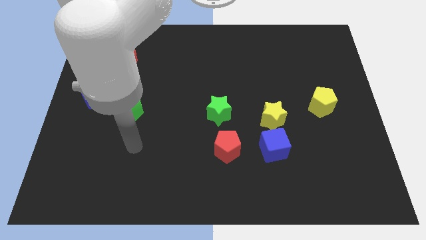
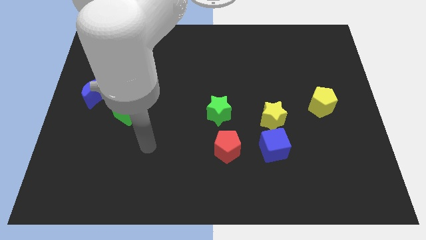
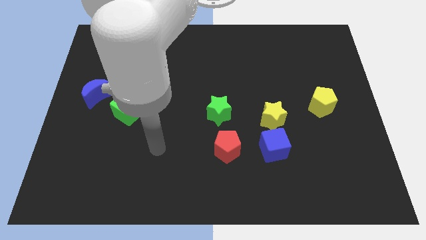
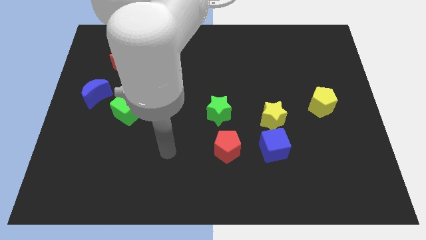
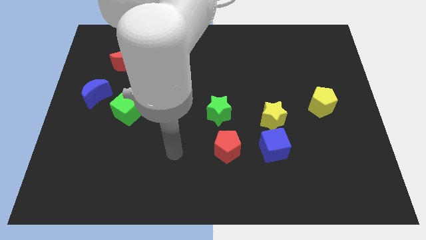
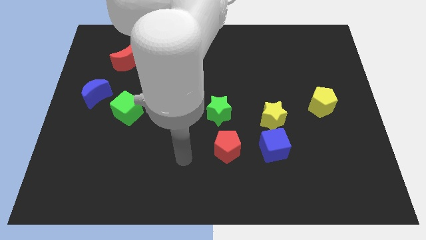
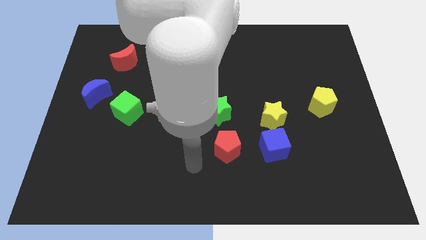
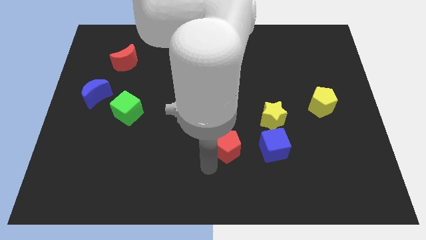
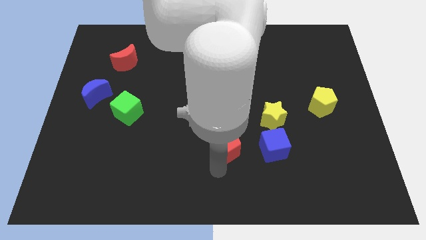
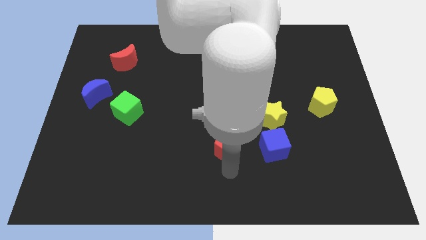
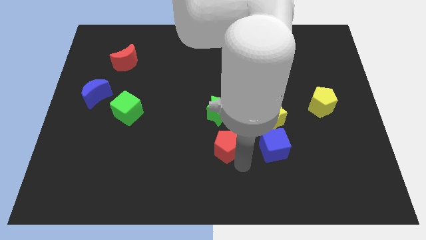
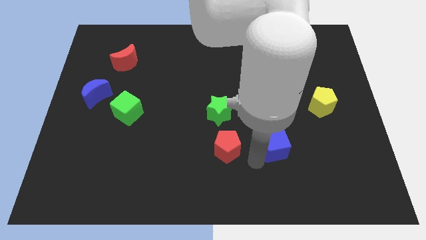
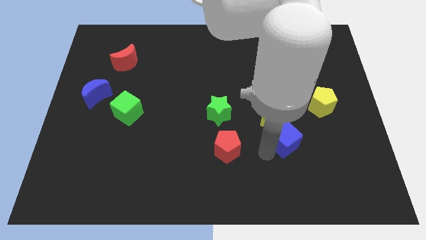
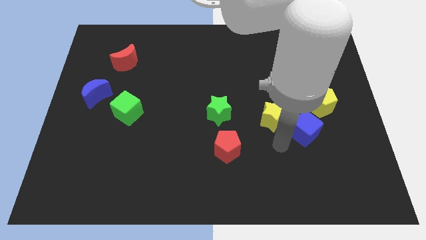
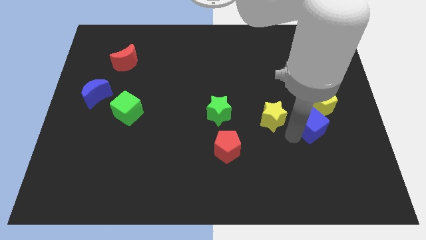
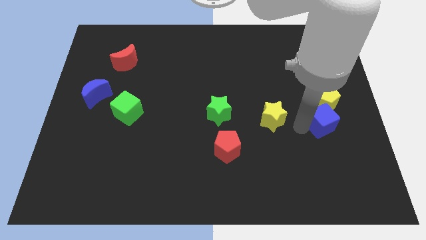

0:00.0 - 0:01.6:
move the yellow star away from the blue cube

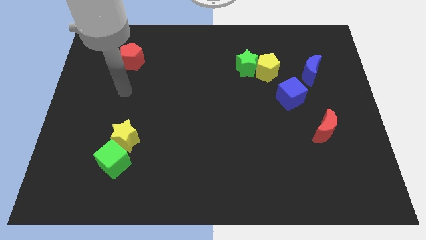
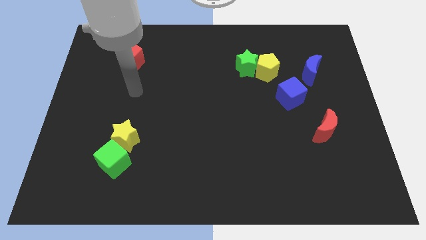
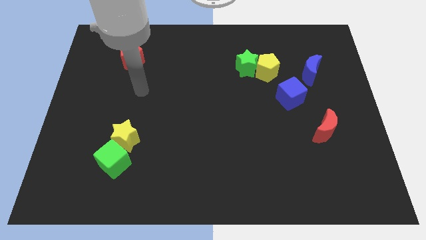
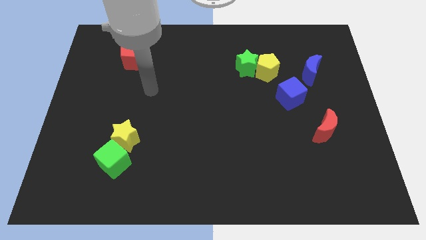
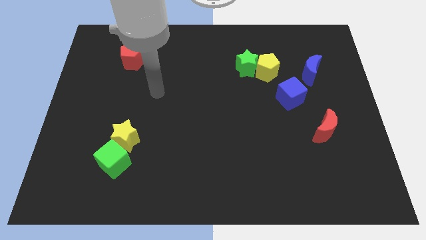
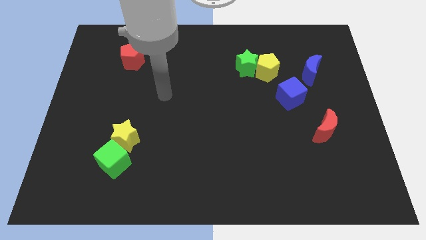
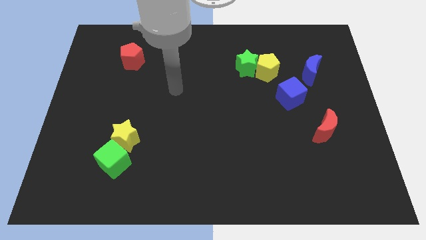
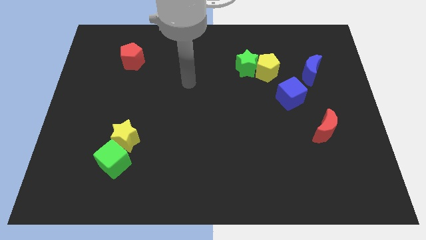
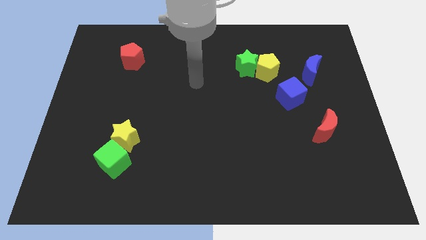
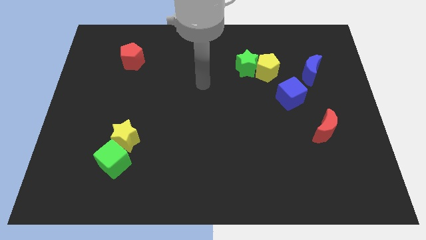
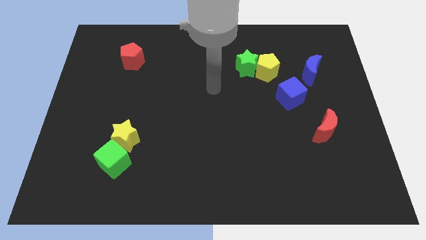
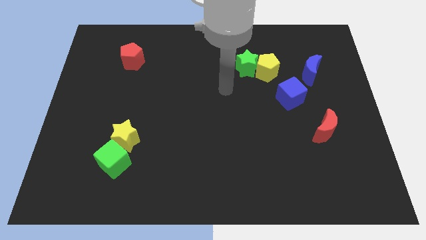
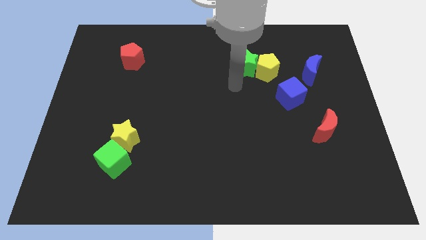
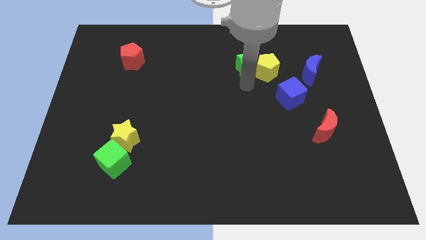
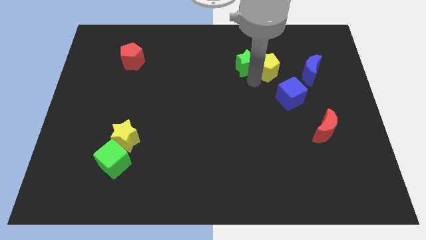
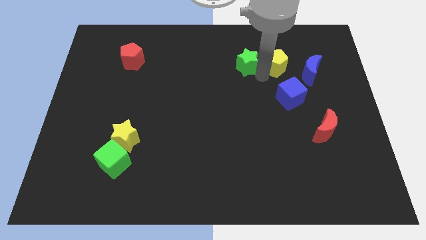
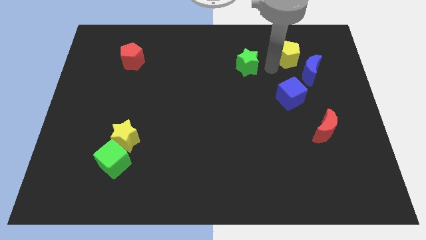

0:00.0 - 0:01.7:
pull the green star apart from the yellow pentagon

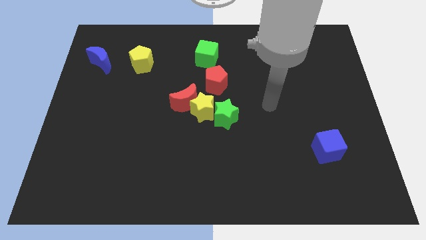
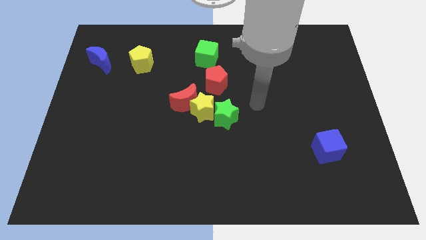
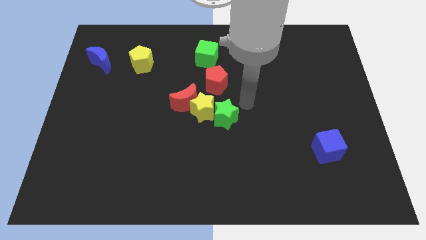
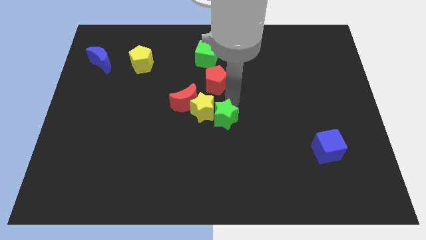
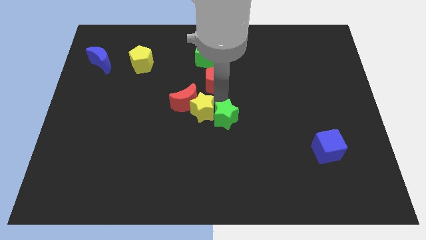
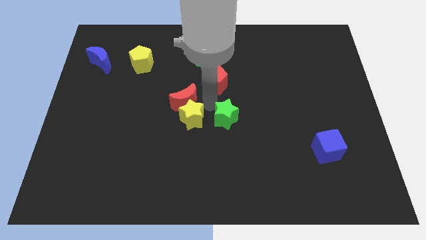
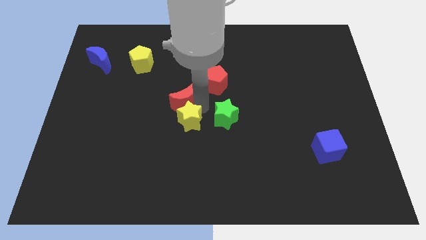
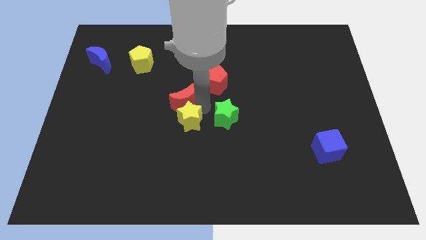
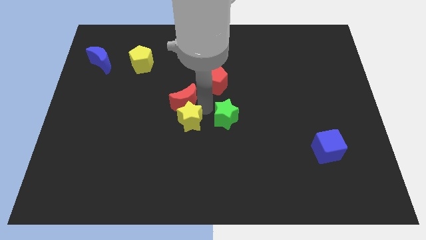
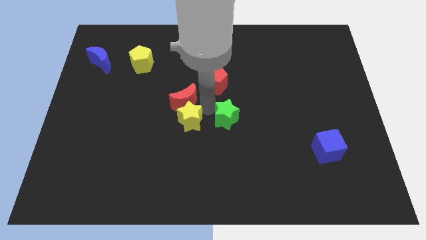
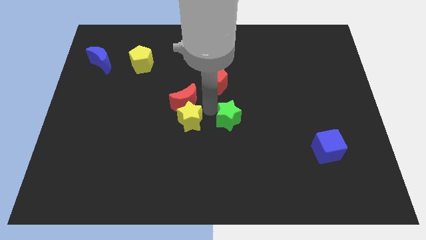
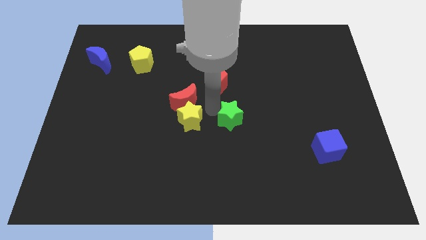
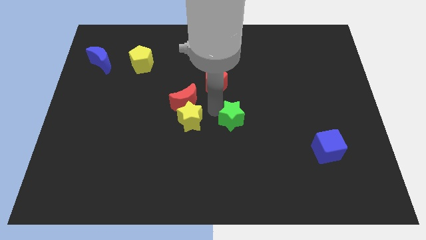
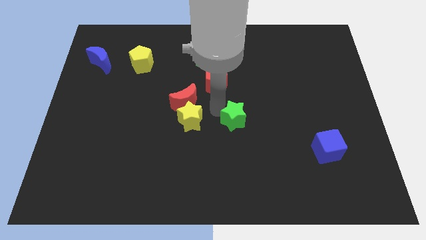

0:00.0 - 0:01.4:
separate the green star from the yellow star

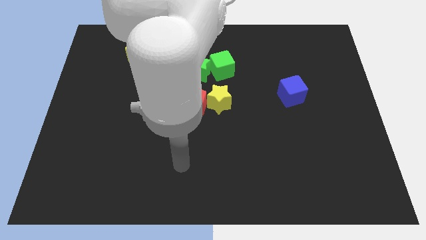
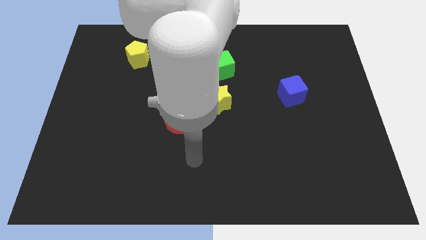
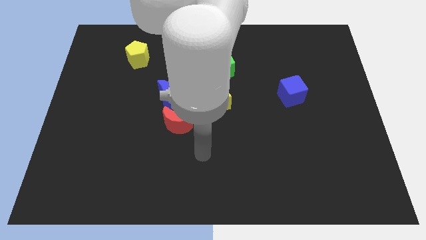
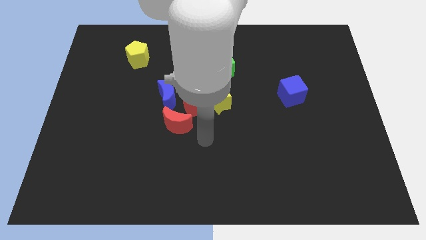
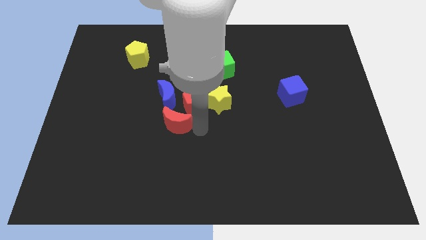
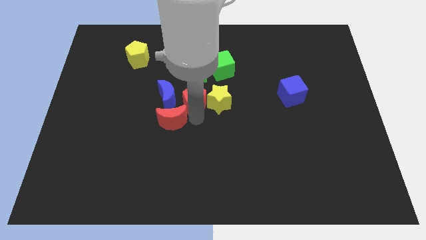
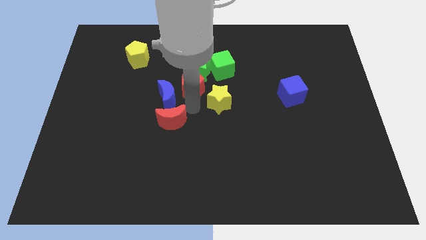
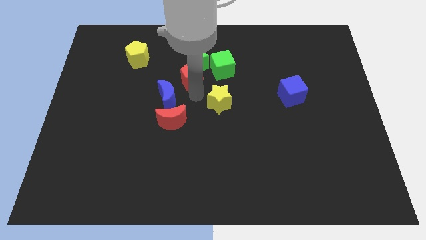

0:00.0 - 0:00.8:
separate the yellow star from the red pentagon

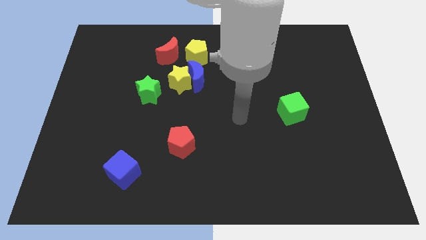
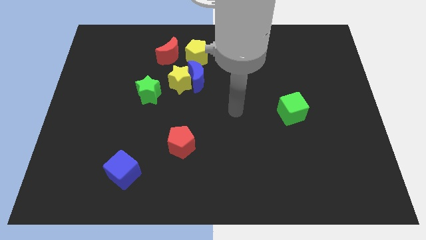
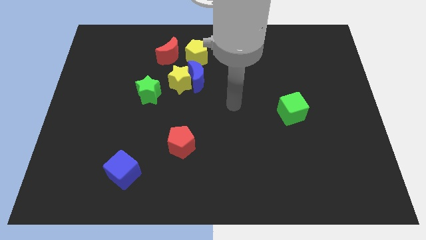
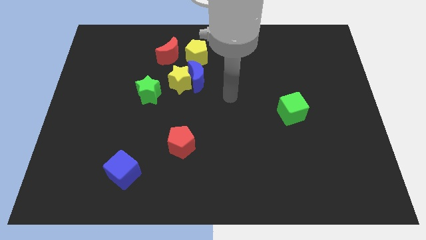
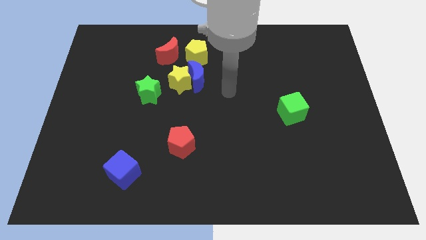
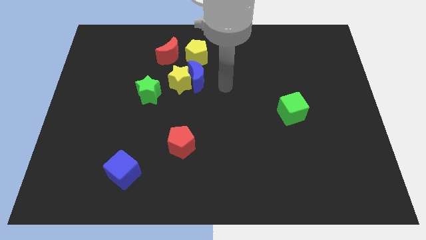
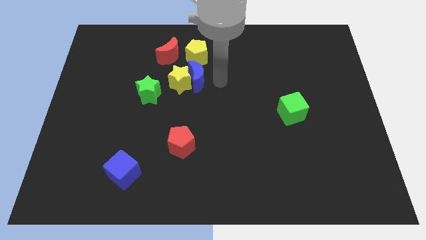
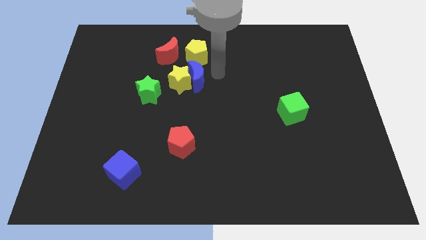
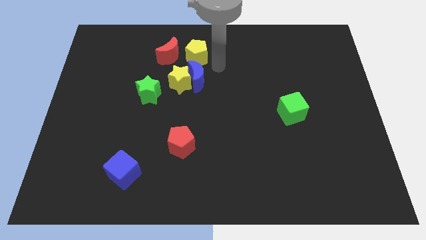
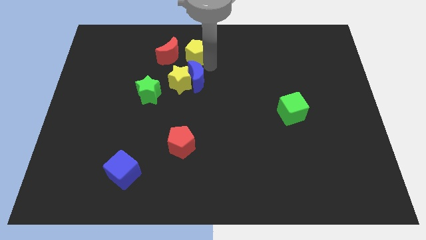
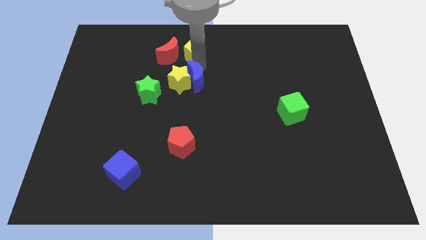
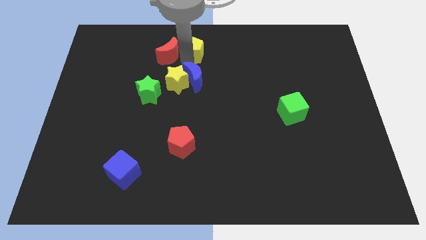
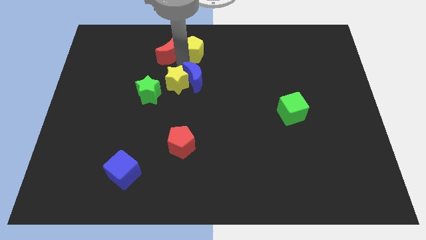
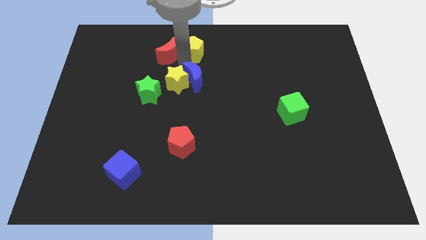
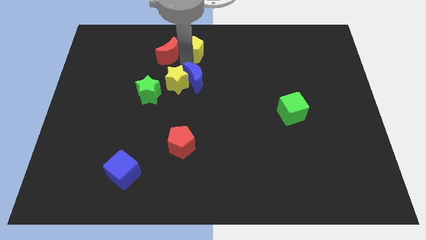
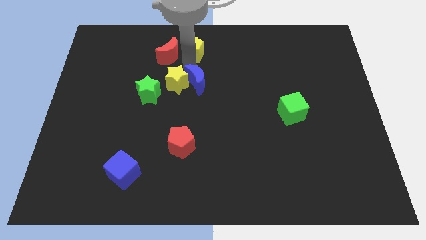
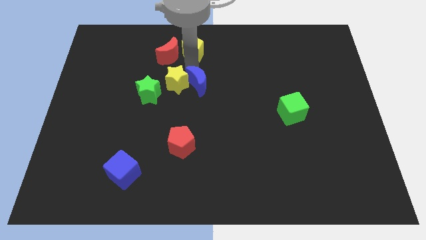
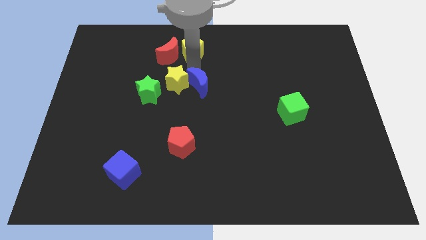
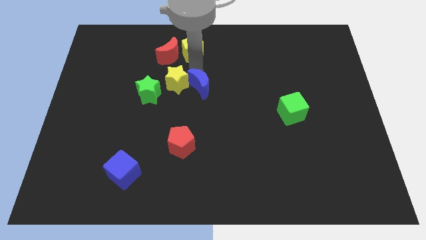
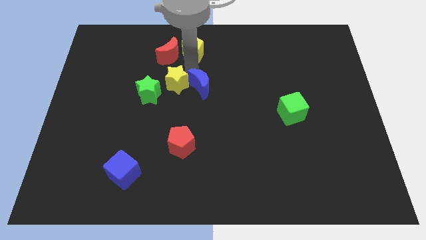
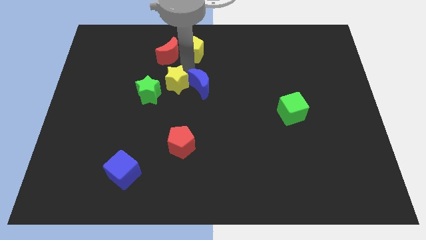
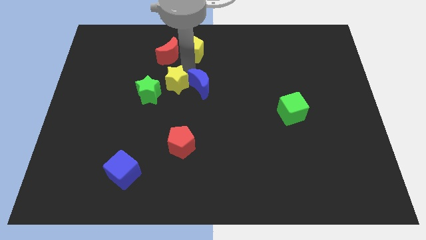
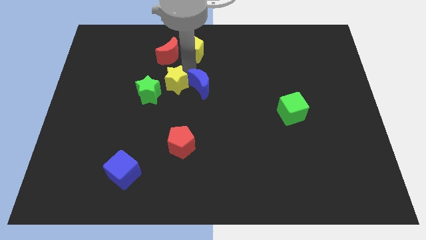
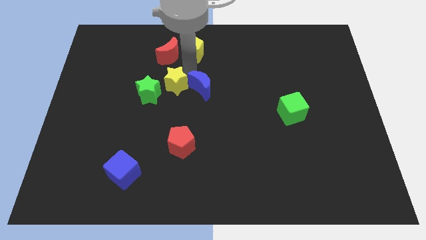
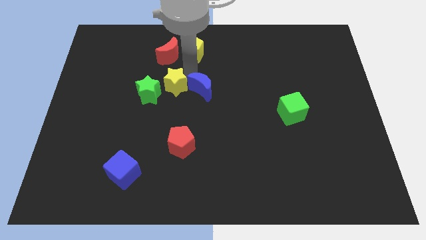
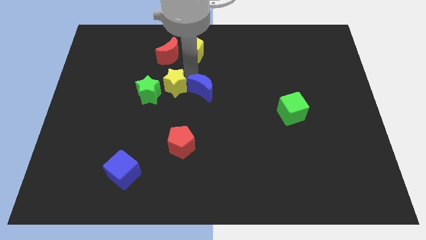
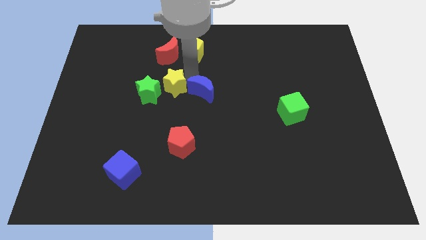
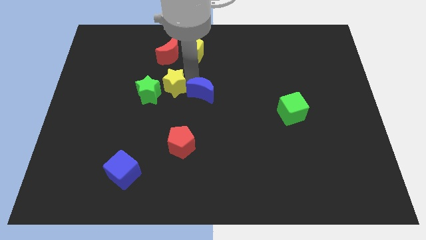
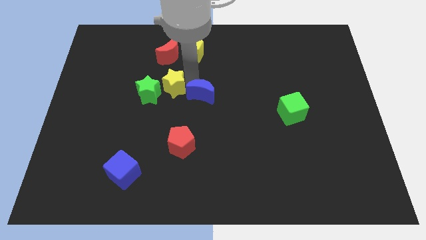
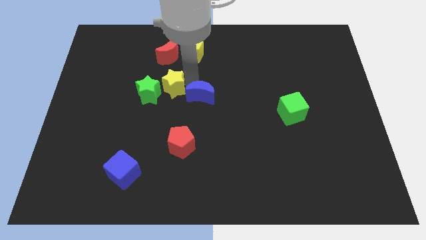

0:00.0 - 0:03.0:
move the blue moon away from the yellow star and yellow pentagon

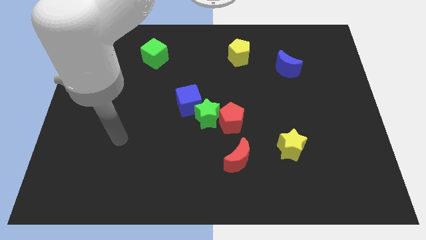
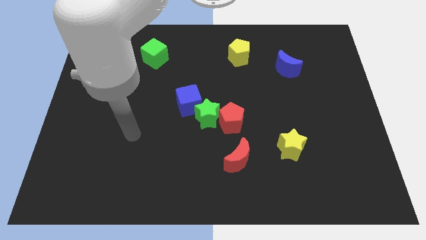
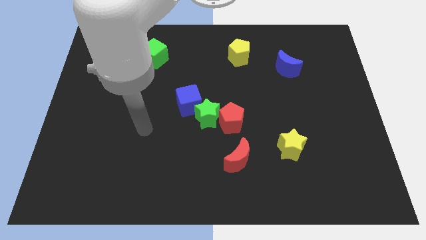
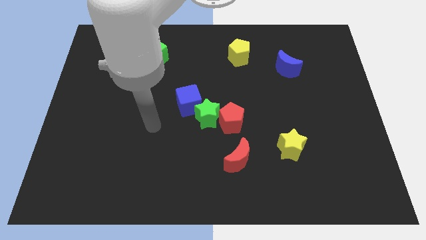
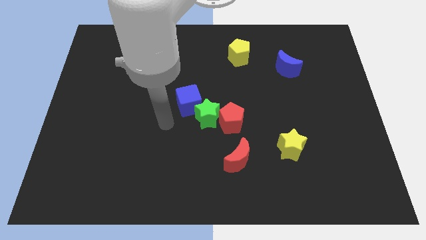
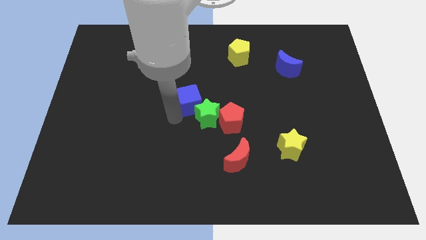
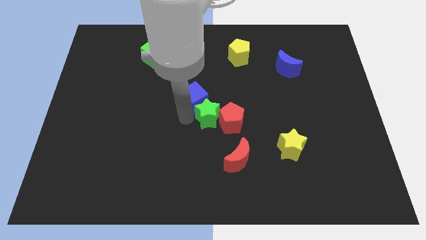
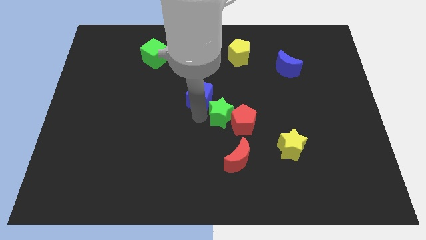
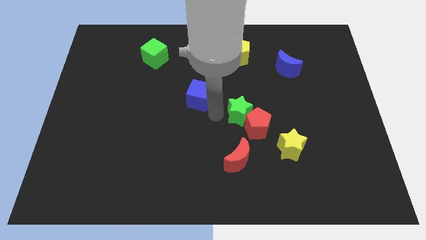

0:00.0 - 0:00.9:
separate the blue cube from the green star
